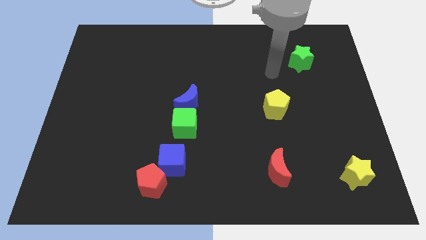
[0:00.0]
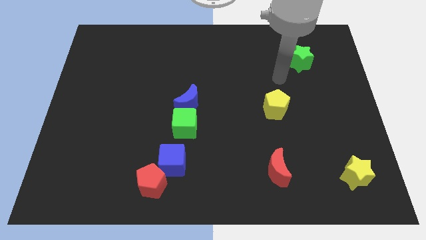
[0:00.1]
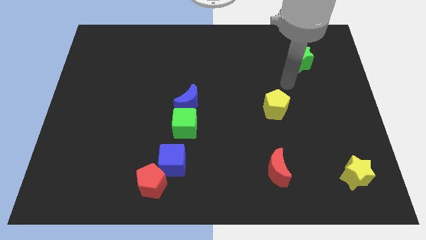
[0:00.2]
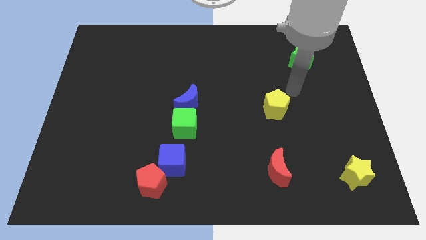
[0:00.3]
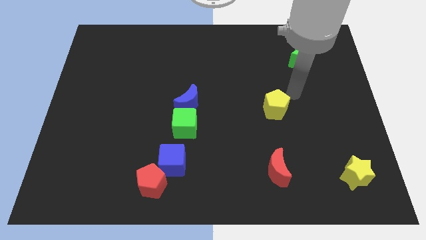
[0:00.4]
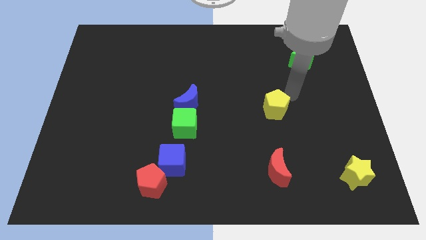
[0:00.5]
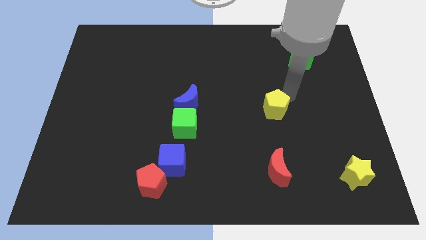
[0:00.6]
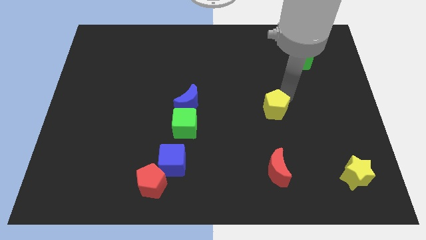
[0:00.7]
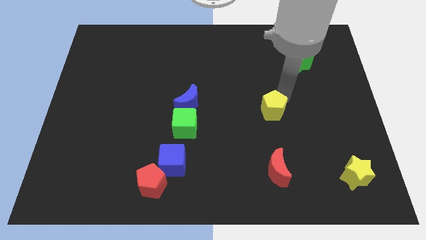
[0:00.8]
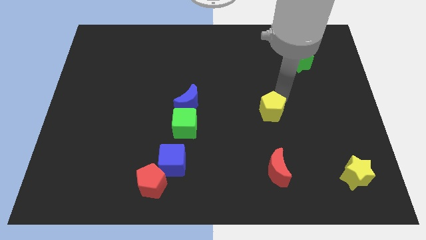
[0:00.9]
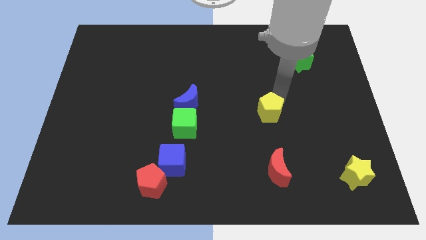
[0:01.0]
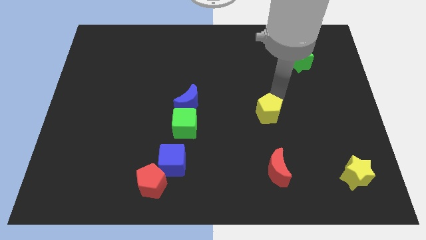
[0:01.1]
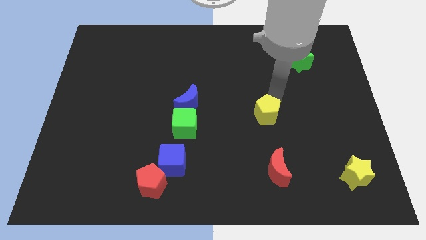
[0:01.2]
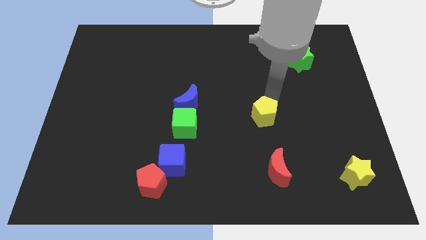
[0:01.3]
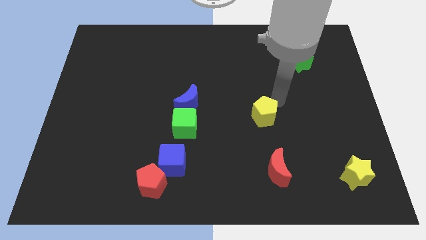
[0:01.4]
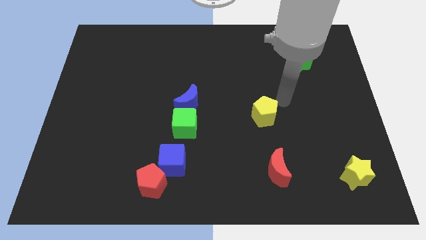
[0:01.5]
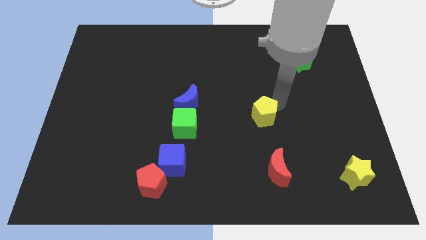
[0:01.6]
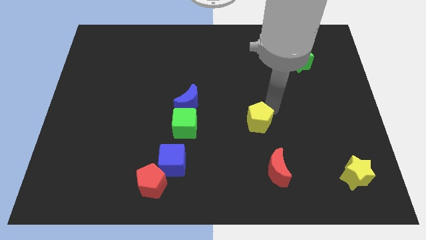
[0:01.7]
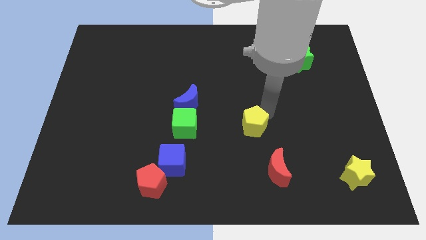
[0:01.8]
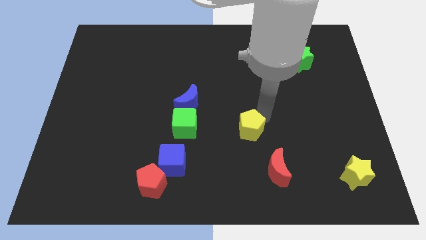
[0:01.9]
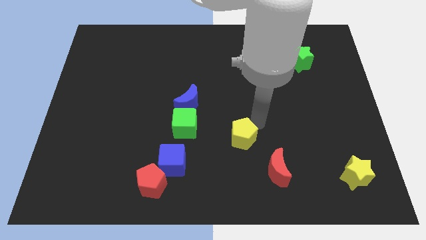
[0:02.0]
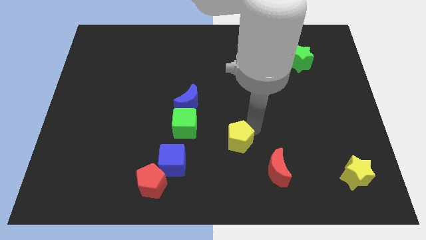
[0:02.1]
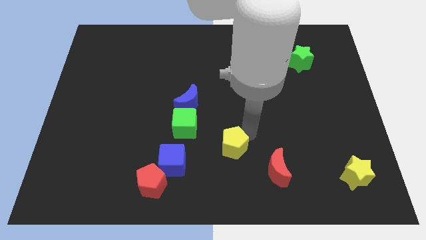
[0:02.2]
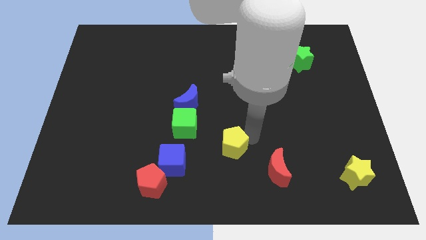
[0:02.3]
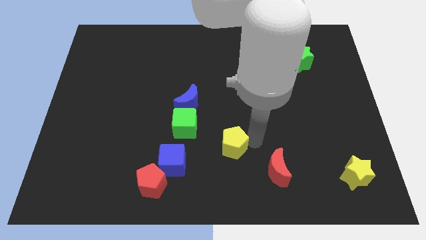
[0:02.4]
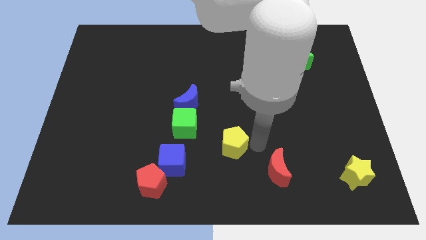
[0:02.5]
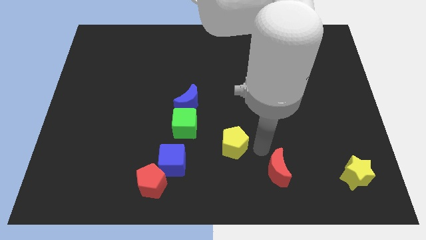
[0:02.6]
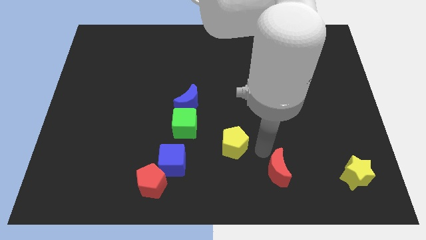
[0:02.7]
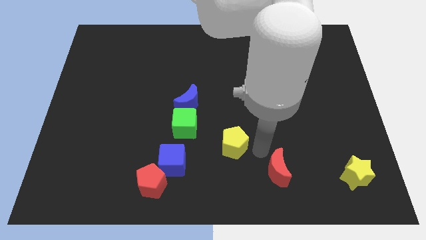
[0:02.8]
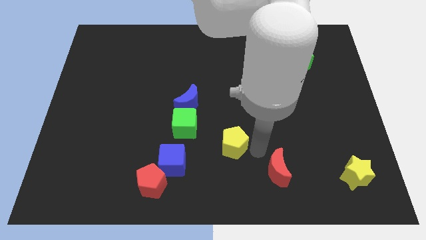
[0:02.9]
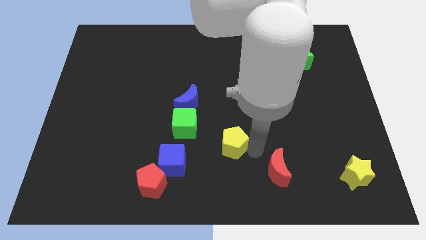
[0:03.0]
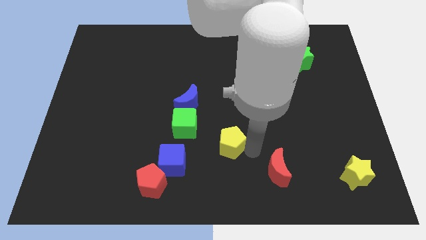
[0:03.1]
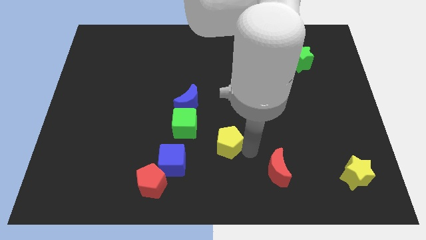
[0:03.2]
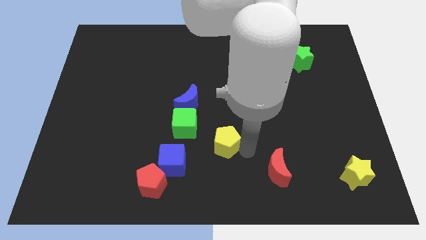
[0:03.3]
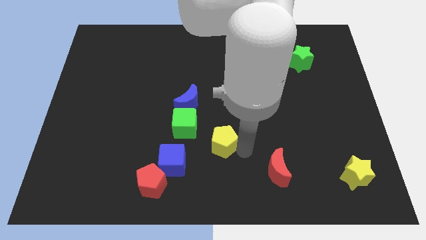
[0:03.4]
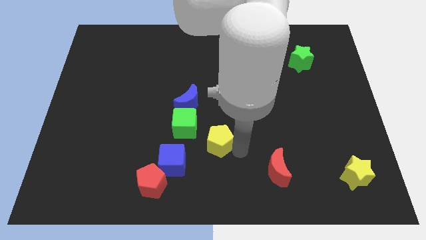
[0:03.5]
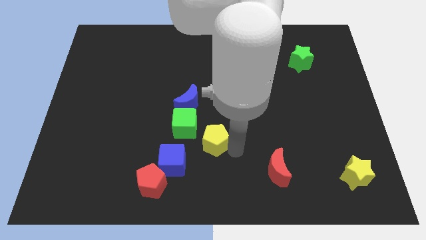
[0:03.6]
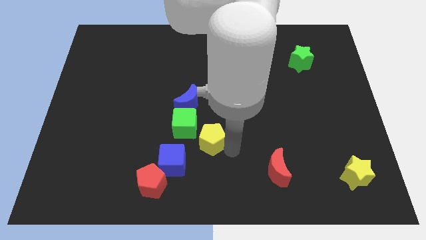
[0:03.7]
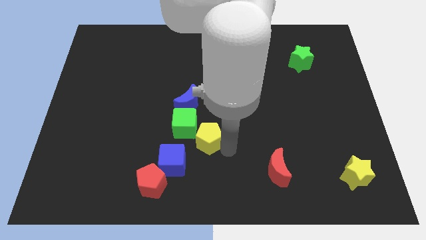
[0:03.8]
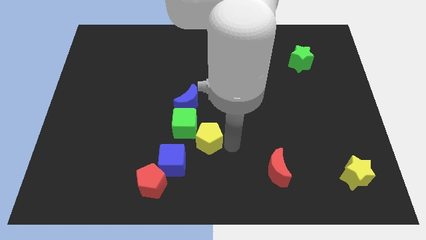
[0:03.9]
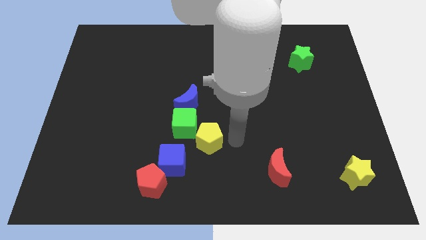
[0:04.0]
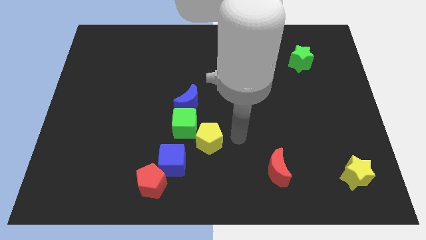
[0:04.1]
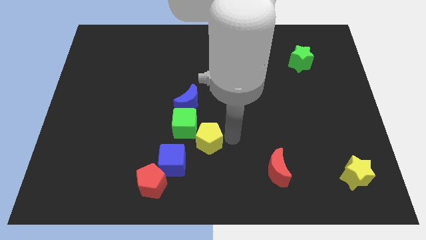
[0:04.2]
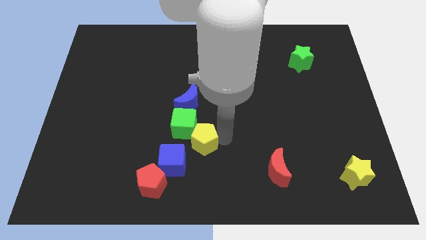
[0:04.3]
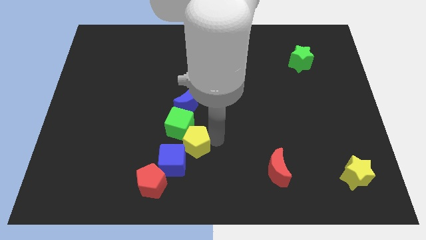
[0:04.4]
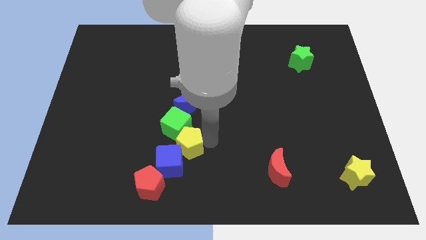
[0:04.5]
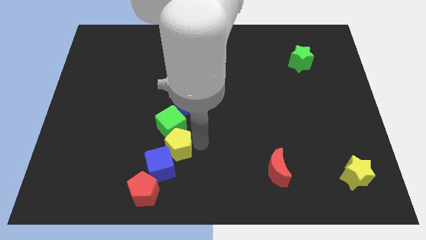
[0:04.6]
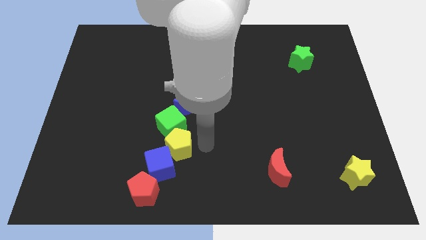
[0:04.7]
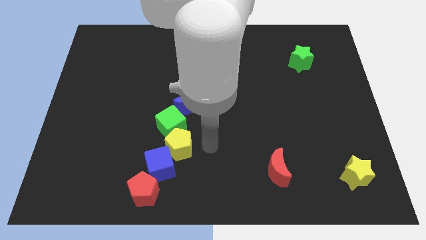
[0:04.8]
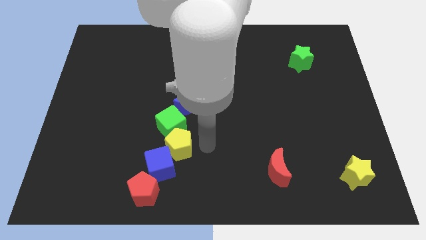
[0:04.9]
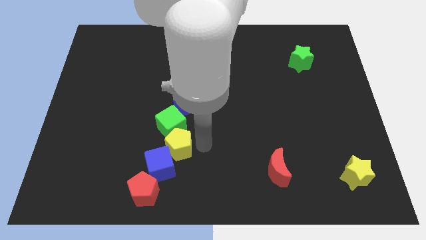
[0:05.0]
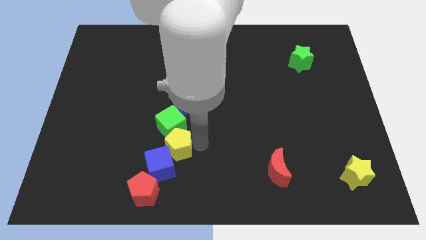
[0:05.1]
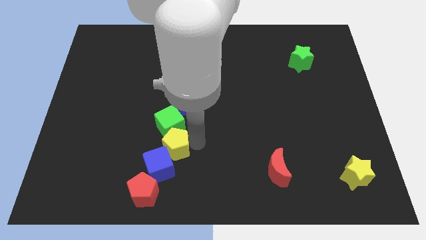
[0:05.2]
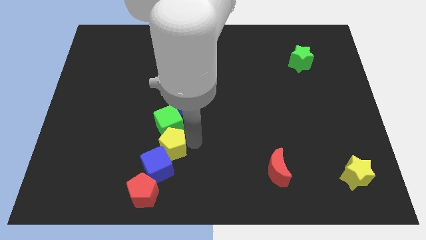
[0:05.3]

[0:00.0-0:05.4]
slide the yellow pentagon to the bottom left side of the green cube

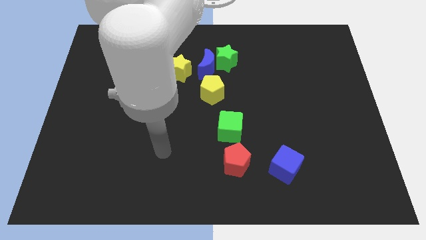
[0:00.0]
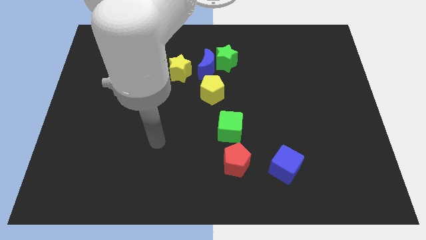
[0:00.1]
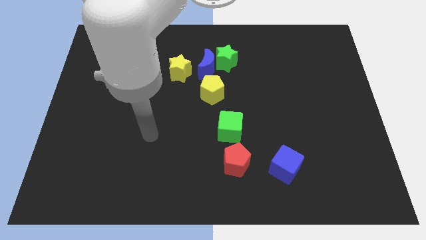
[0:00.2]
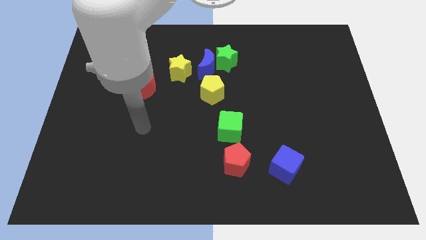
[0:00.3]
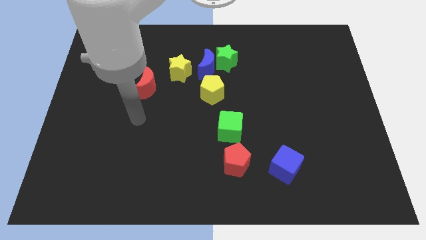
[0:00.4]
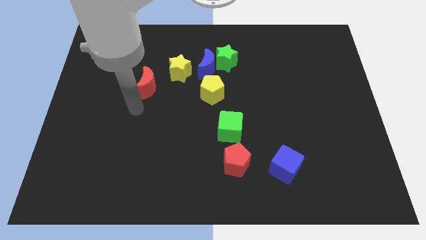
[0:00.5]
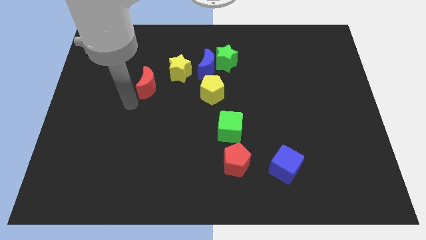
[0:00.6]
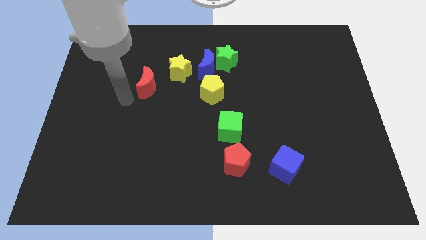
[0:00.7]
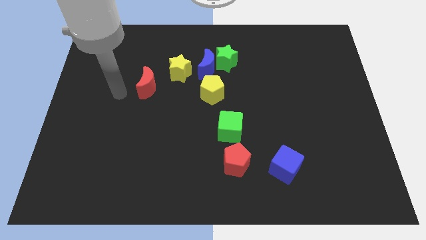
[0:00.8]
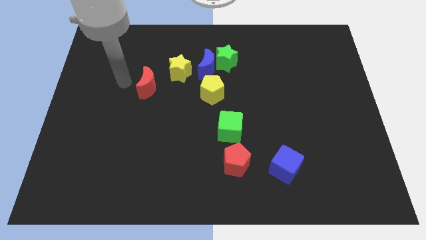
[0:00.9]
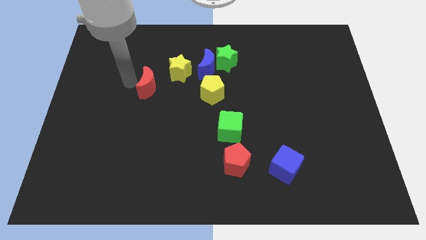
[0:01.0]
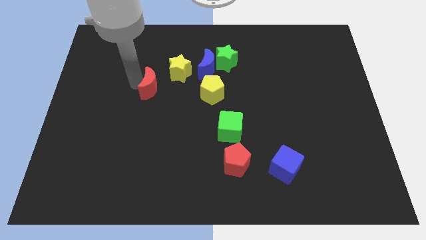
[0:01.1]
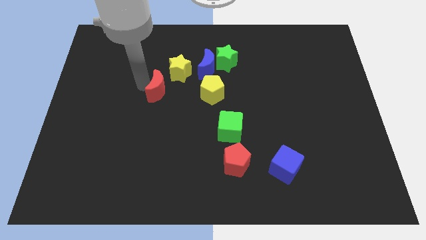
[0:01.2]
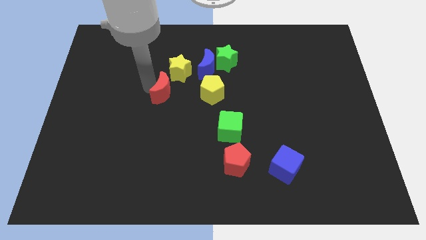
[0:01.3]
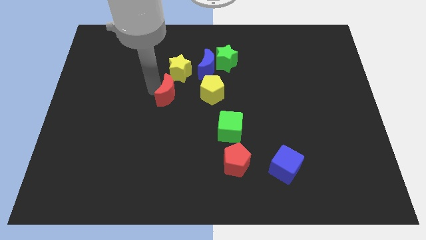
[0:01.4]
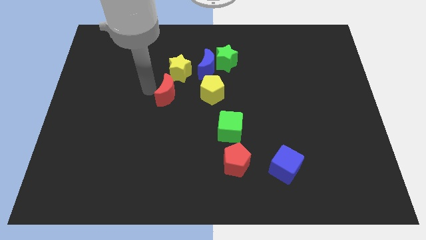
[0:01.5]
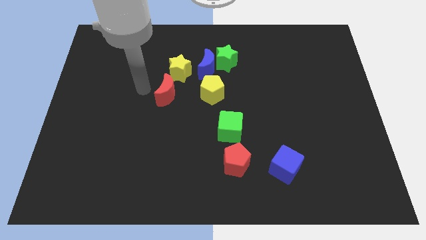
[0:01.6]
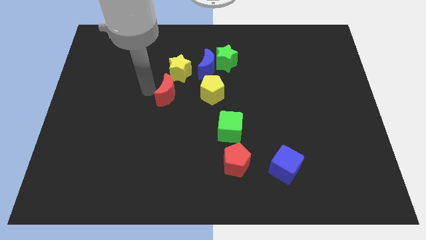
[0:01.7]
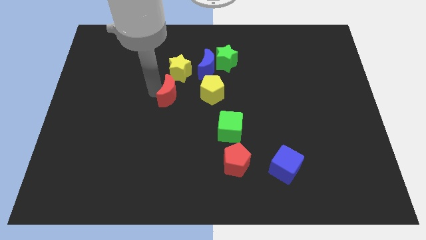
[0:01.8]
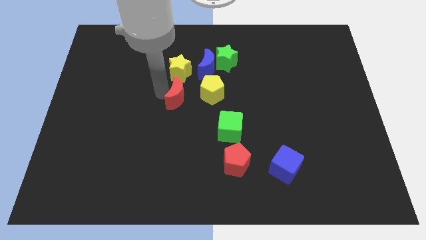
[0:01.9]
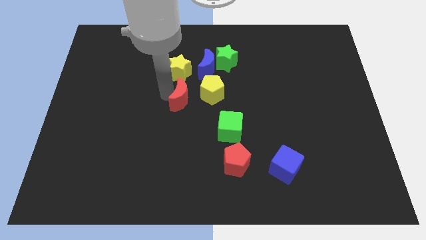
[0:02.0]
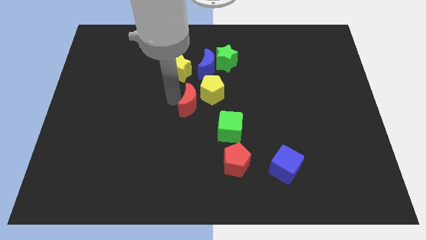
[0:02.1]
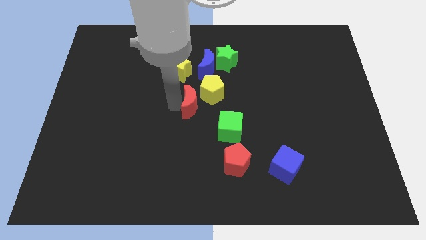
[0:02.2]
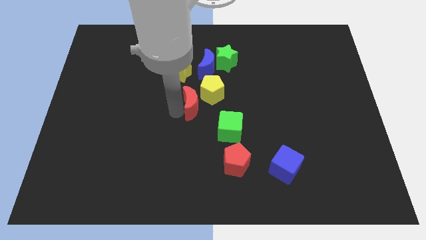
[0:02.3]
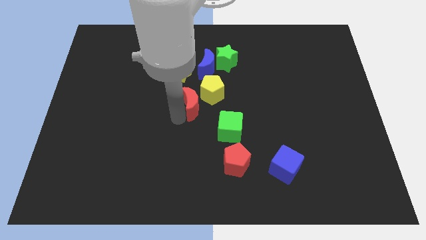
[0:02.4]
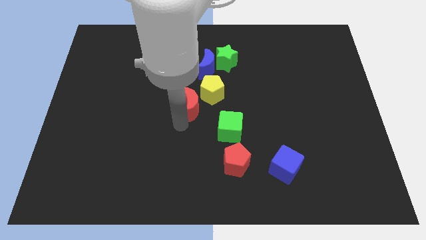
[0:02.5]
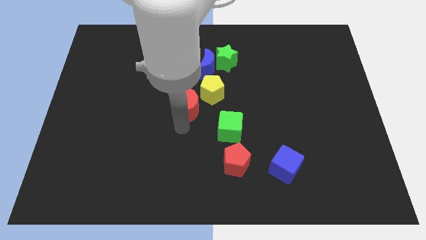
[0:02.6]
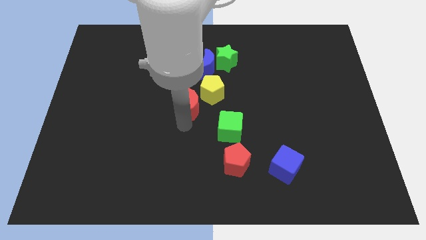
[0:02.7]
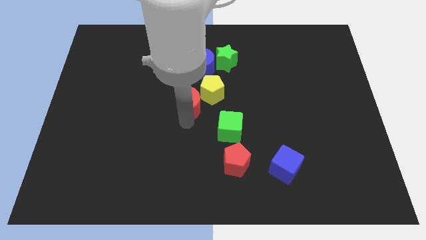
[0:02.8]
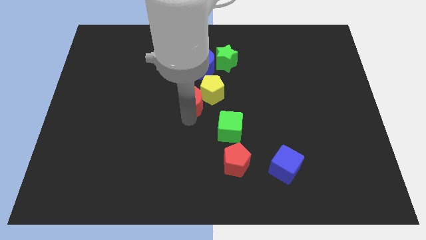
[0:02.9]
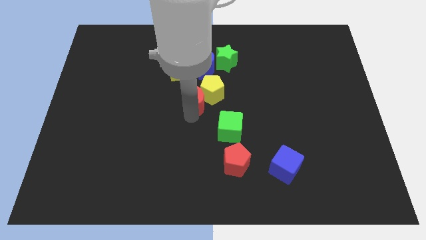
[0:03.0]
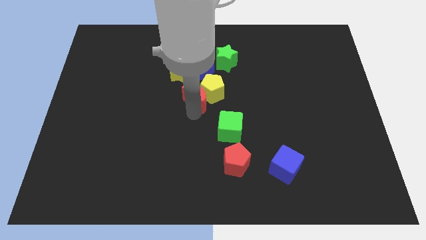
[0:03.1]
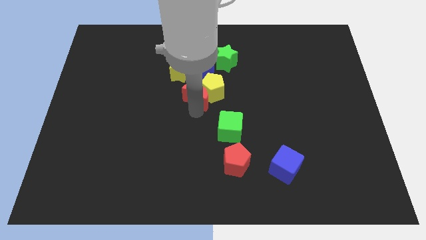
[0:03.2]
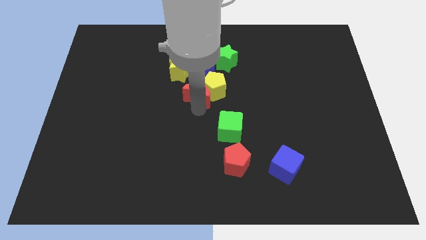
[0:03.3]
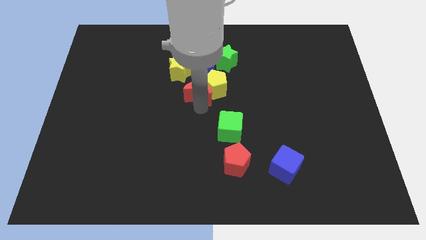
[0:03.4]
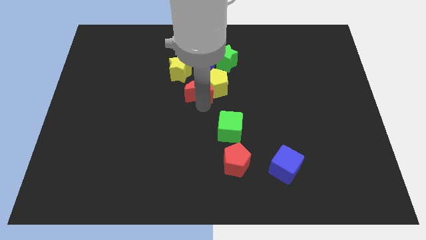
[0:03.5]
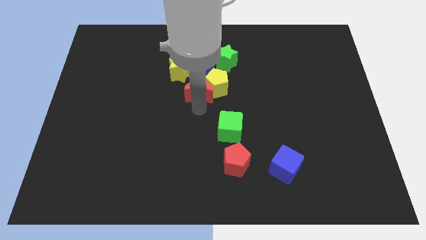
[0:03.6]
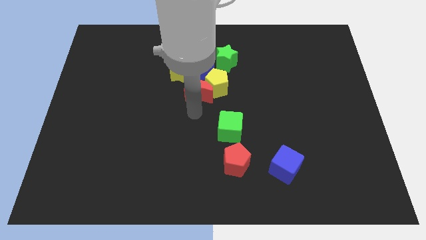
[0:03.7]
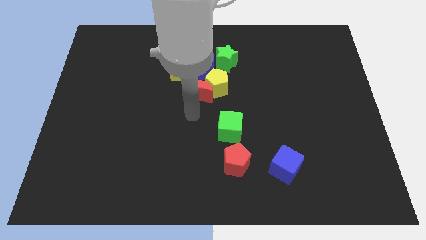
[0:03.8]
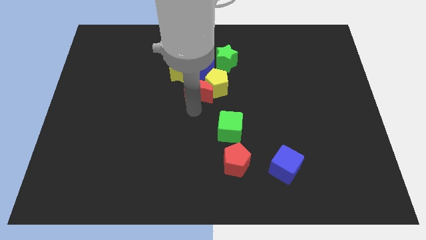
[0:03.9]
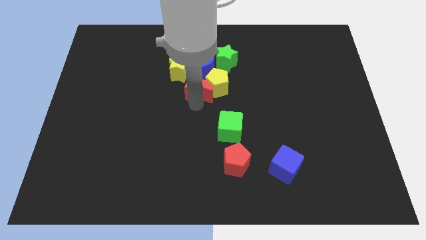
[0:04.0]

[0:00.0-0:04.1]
move the red moon to the bottom left side of the green star
